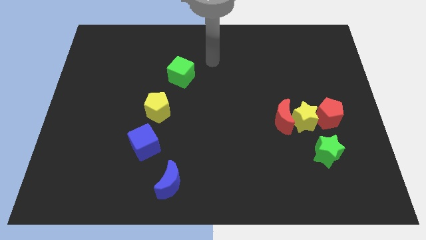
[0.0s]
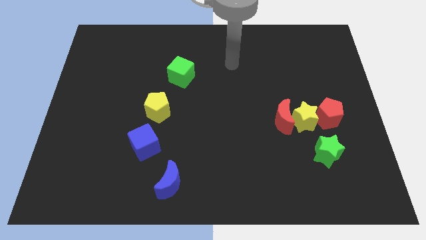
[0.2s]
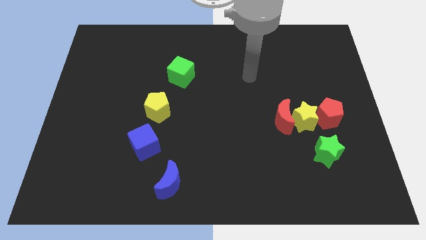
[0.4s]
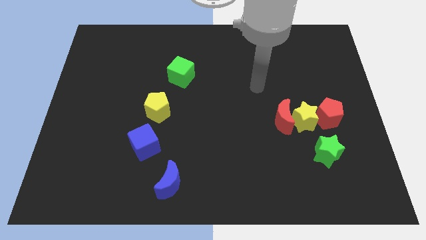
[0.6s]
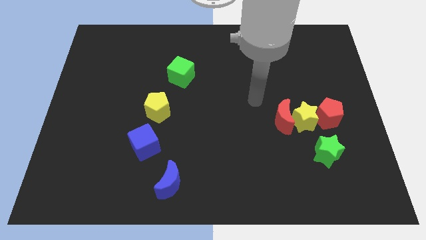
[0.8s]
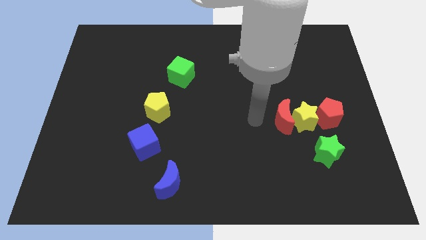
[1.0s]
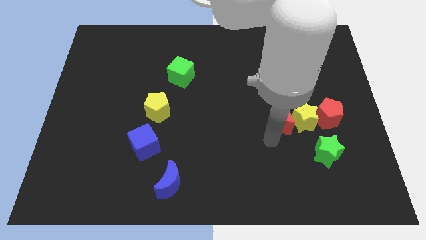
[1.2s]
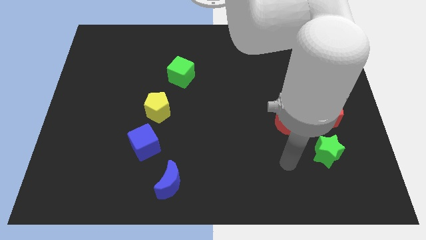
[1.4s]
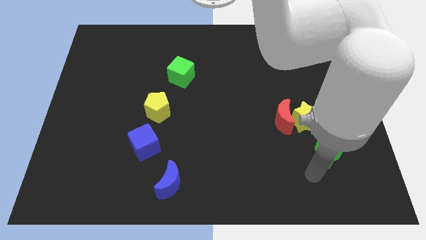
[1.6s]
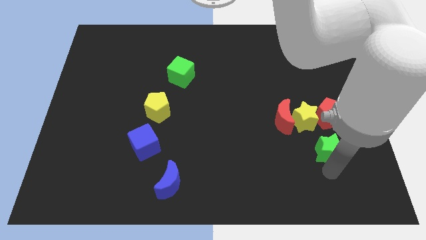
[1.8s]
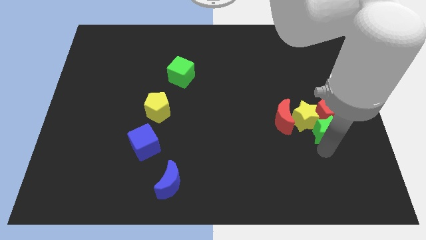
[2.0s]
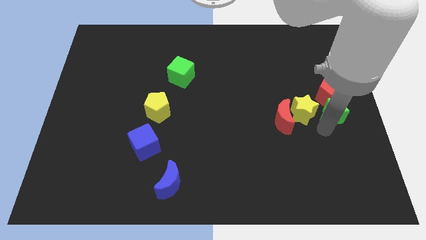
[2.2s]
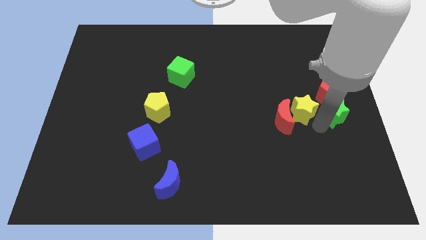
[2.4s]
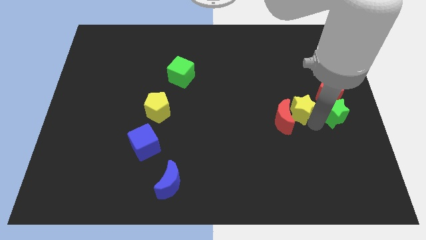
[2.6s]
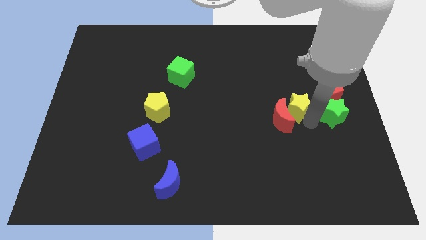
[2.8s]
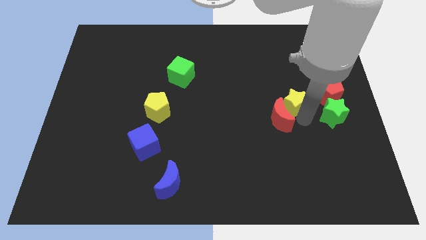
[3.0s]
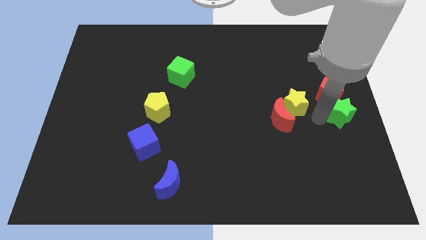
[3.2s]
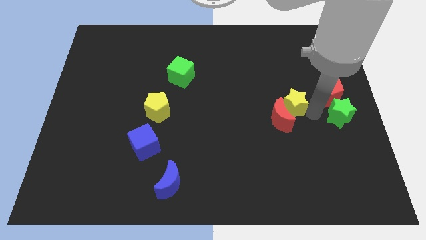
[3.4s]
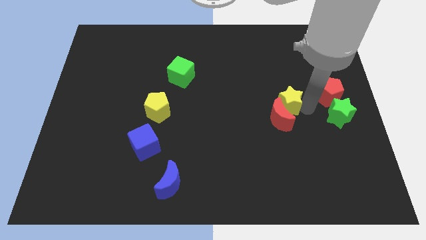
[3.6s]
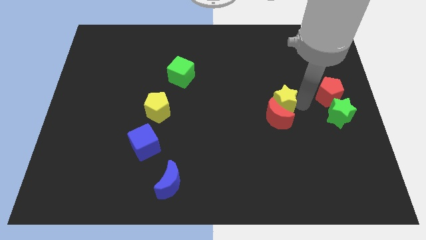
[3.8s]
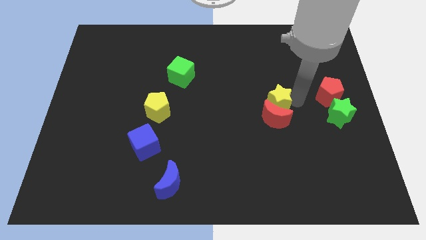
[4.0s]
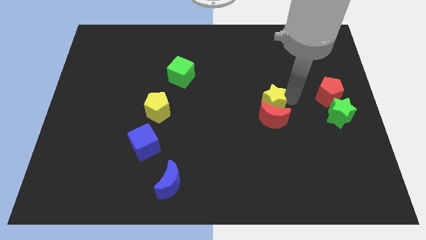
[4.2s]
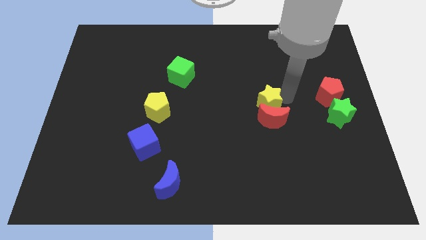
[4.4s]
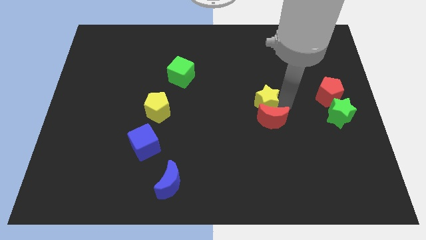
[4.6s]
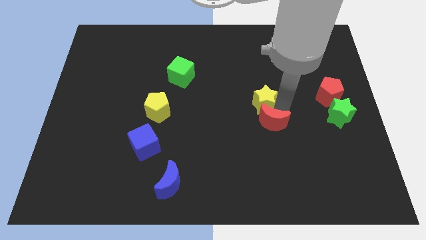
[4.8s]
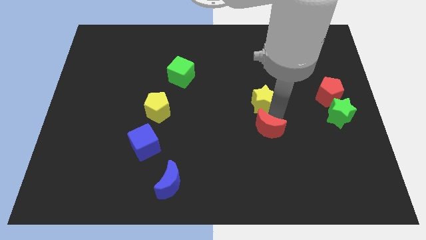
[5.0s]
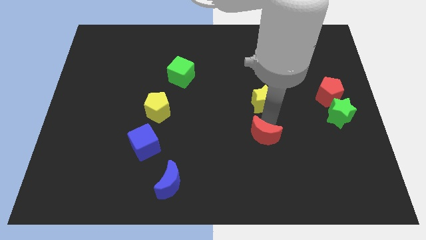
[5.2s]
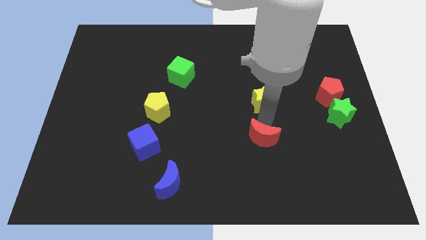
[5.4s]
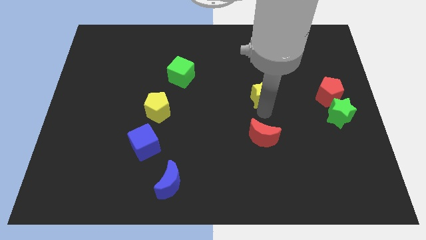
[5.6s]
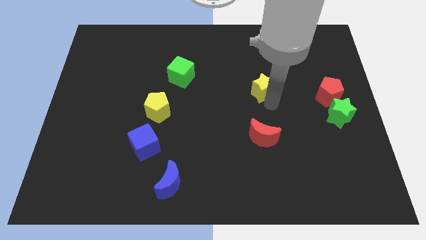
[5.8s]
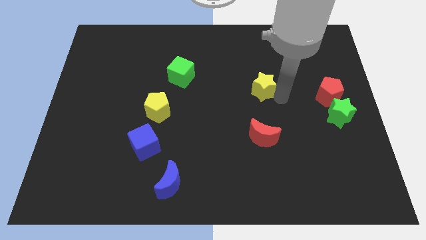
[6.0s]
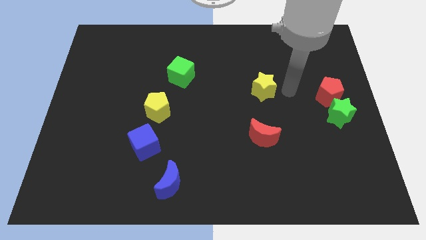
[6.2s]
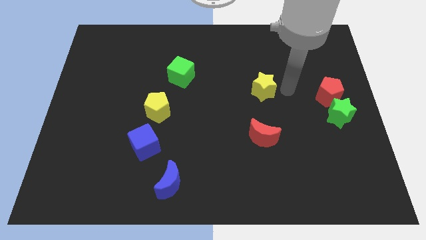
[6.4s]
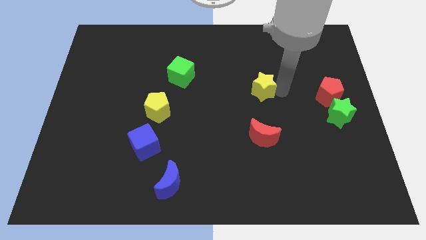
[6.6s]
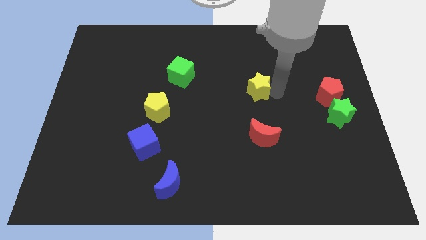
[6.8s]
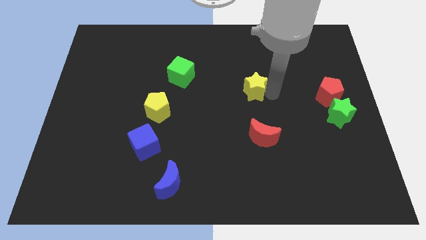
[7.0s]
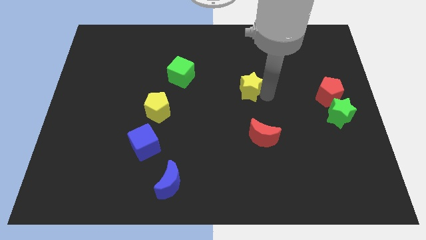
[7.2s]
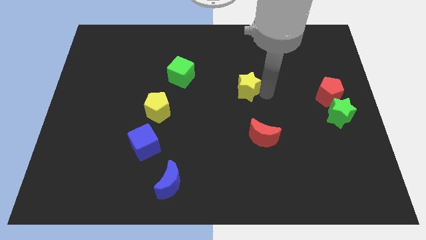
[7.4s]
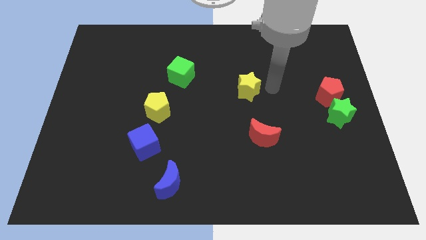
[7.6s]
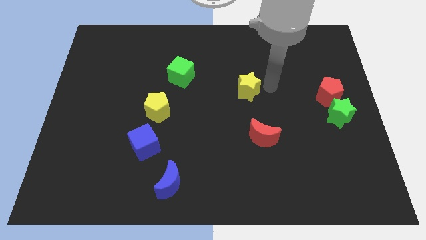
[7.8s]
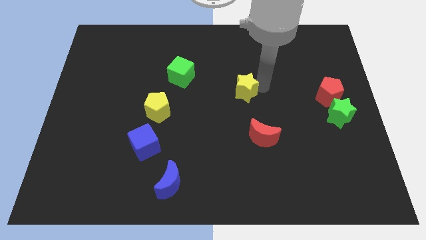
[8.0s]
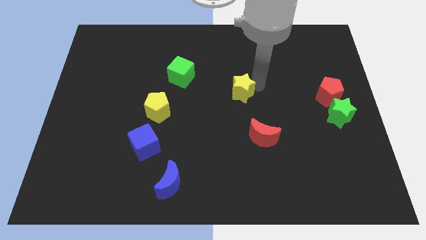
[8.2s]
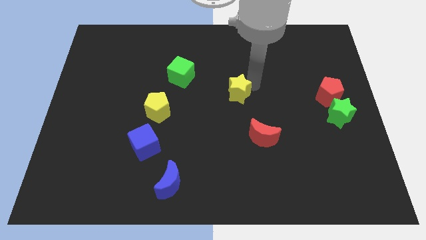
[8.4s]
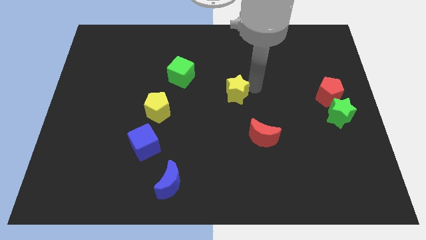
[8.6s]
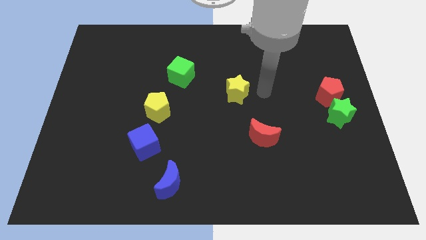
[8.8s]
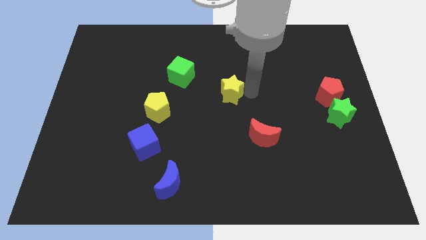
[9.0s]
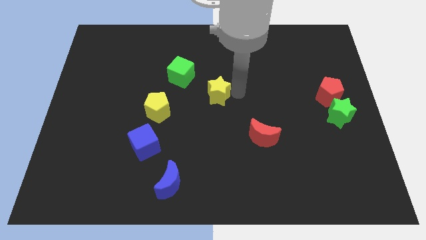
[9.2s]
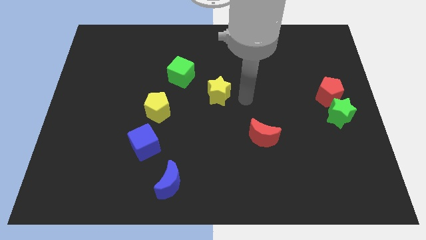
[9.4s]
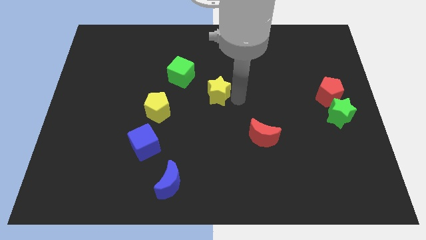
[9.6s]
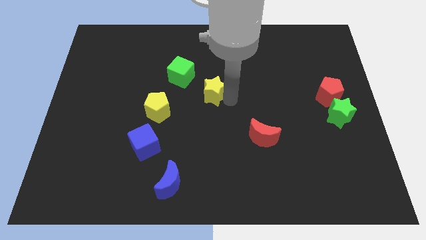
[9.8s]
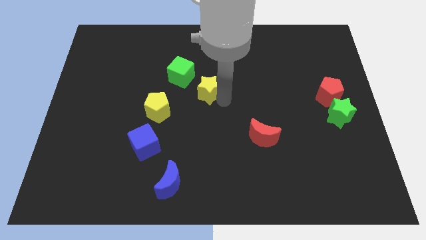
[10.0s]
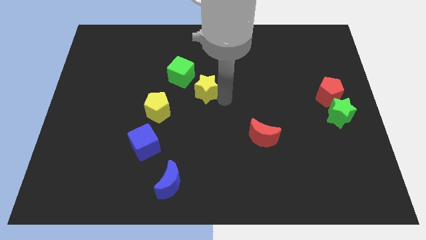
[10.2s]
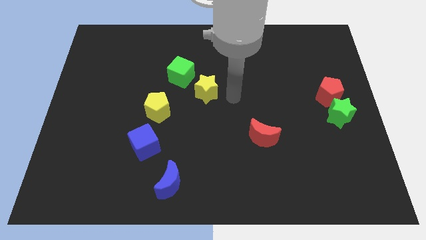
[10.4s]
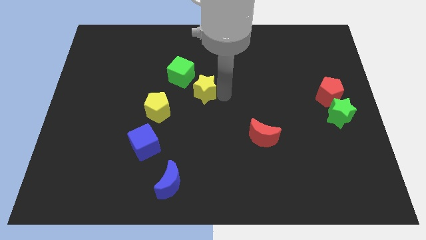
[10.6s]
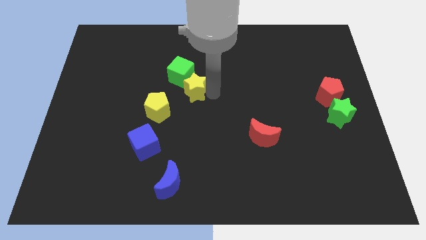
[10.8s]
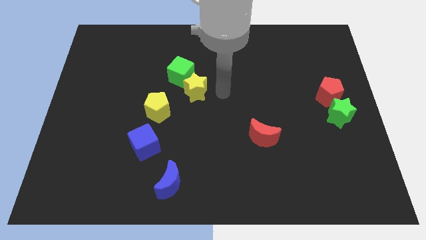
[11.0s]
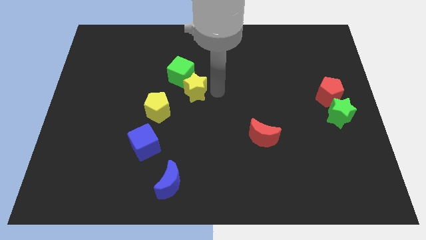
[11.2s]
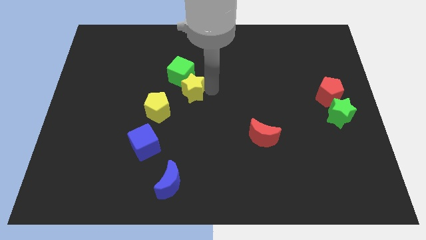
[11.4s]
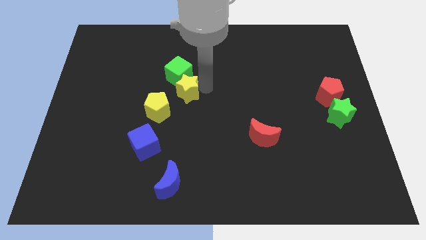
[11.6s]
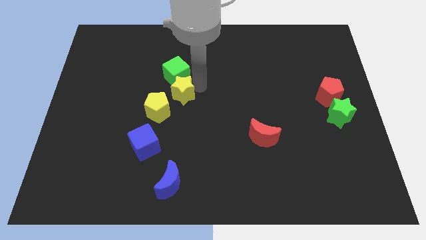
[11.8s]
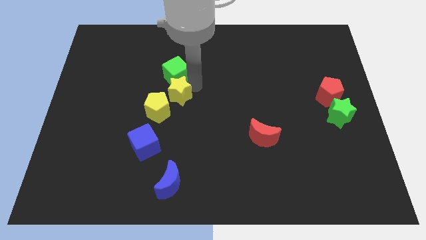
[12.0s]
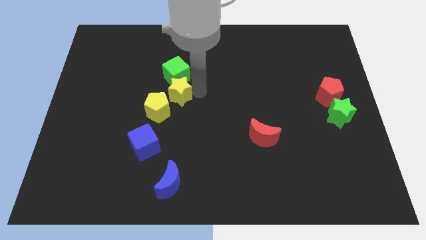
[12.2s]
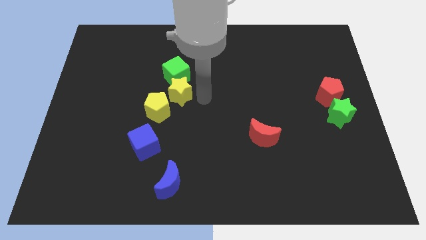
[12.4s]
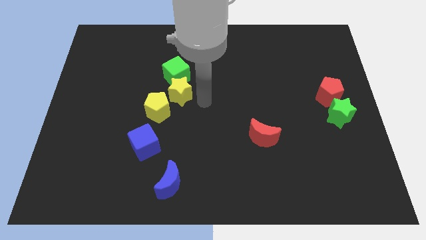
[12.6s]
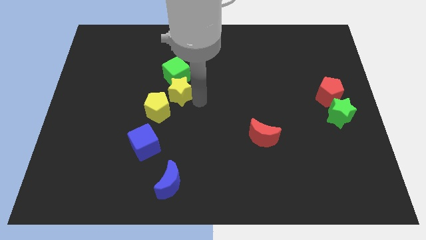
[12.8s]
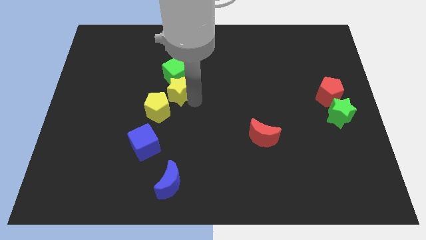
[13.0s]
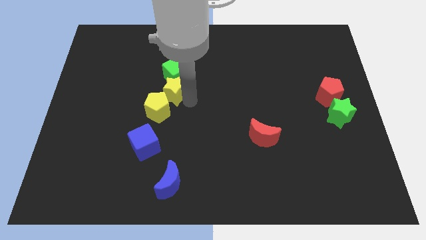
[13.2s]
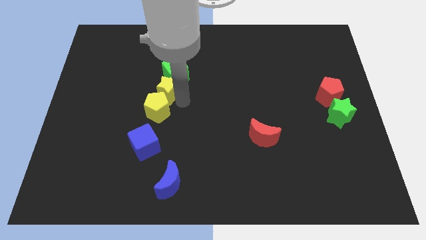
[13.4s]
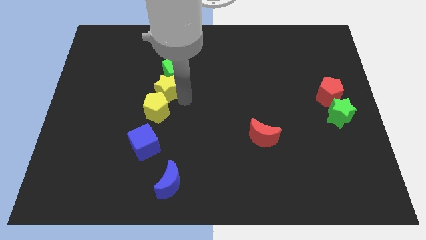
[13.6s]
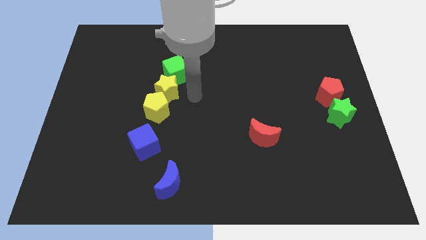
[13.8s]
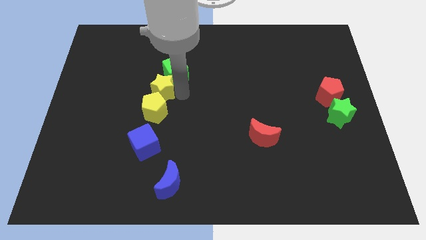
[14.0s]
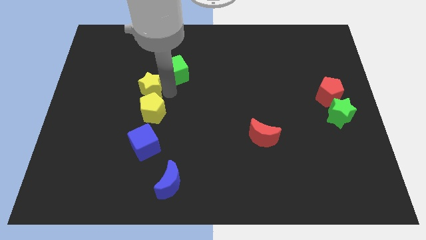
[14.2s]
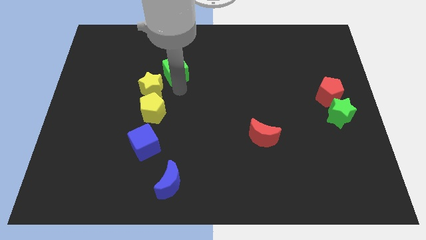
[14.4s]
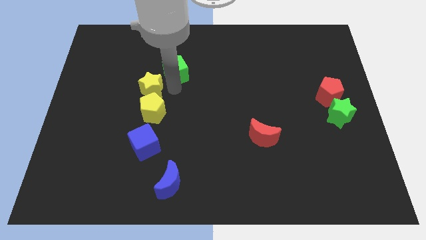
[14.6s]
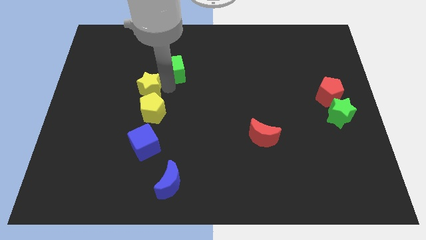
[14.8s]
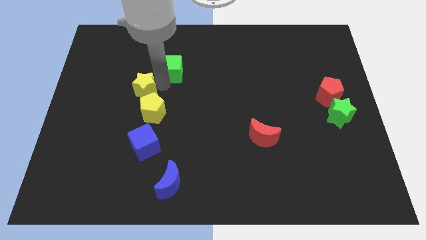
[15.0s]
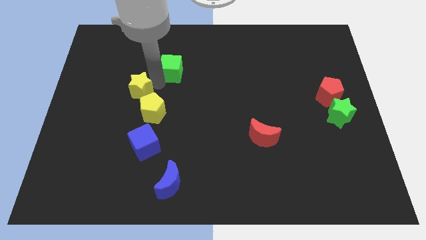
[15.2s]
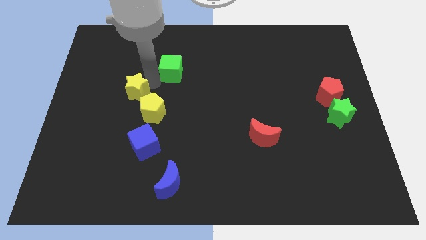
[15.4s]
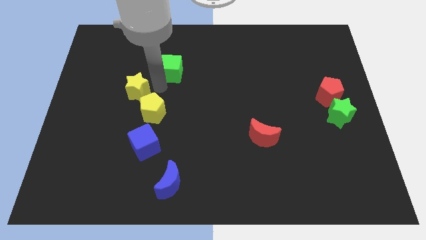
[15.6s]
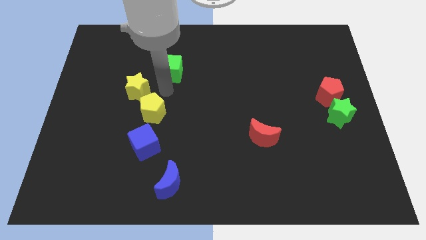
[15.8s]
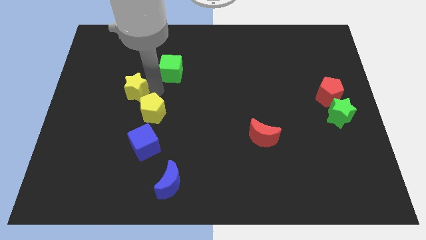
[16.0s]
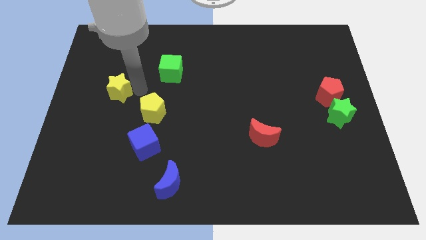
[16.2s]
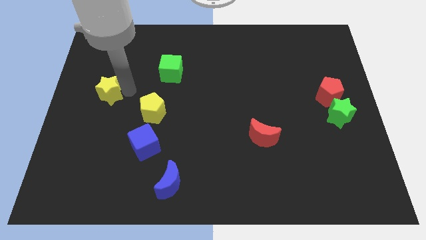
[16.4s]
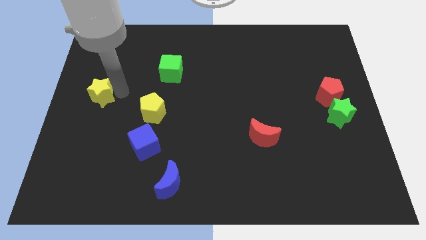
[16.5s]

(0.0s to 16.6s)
put the yellow star to the center left
